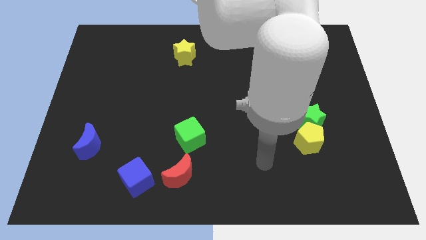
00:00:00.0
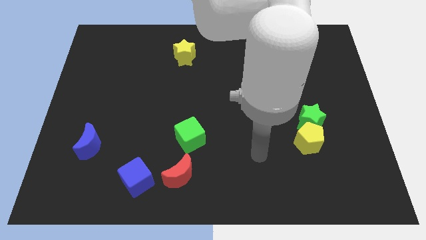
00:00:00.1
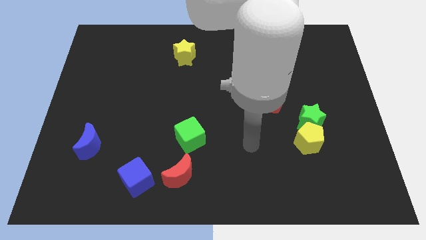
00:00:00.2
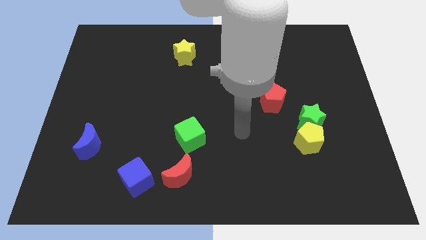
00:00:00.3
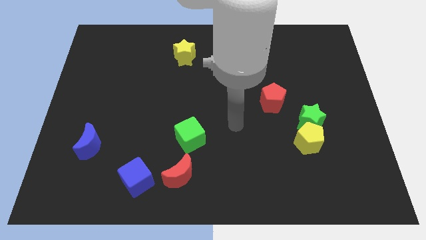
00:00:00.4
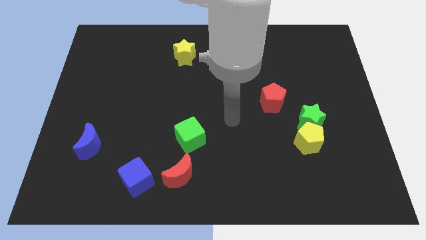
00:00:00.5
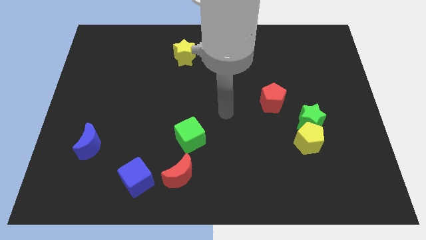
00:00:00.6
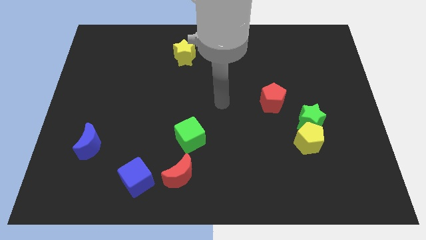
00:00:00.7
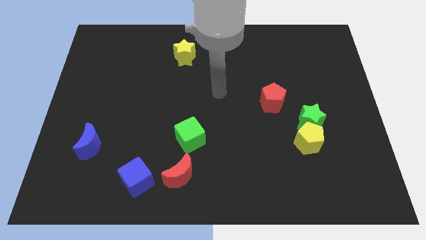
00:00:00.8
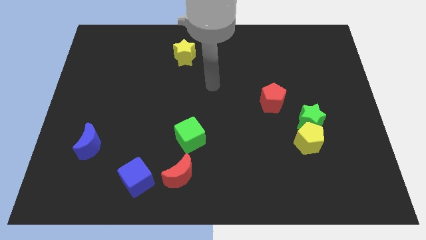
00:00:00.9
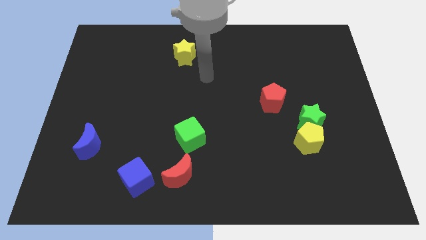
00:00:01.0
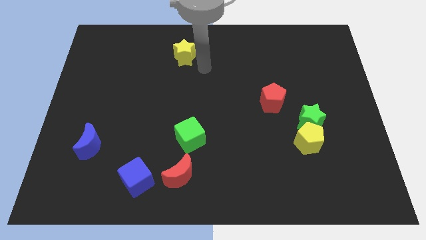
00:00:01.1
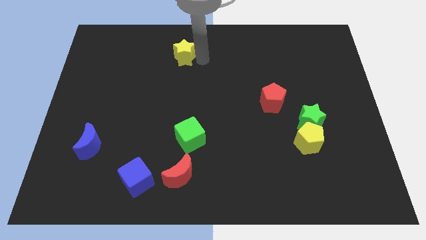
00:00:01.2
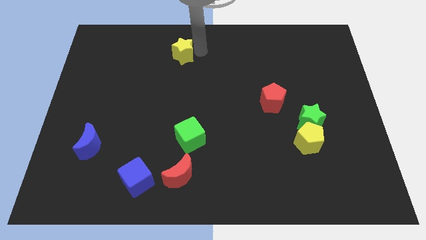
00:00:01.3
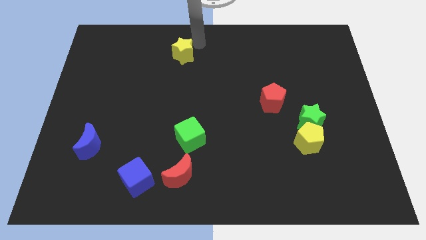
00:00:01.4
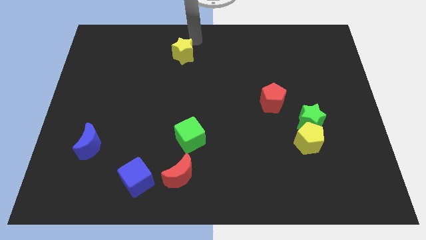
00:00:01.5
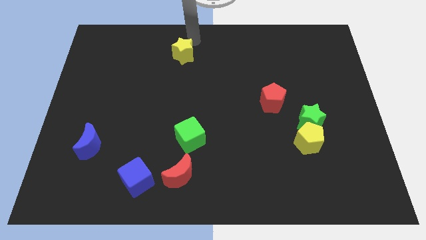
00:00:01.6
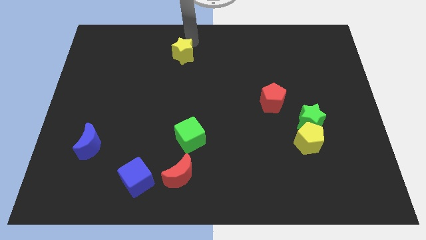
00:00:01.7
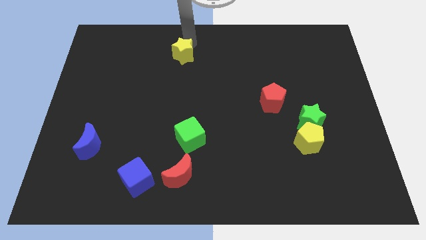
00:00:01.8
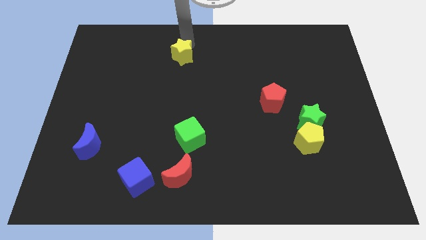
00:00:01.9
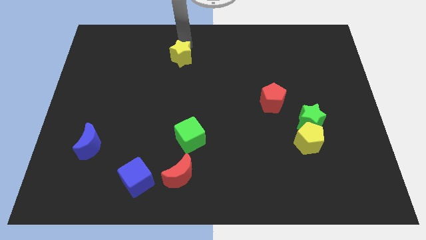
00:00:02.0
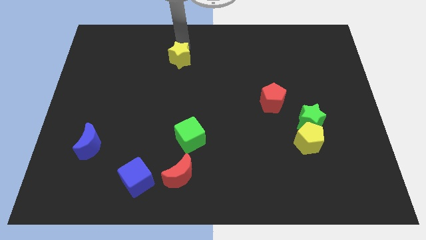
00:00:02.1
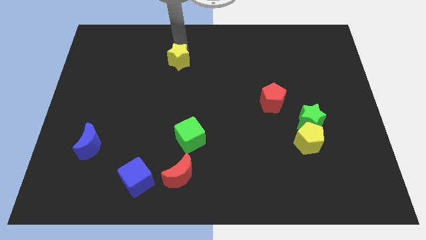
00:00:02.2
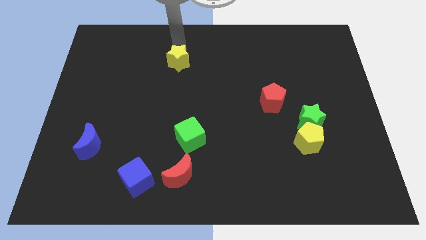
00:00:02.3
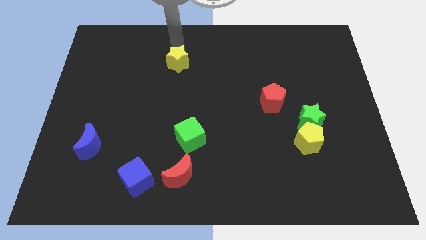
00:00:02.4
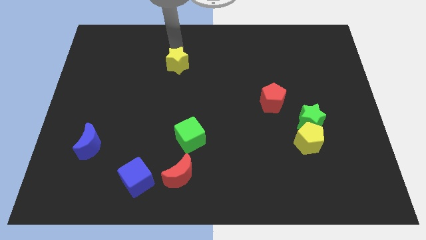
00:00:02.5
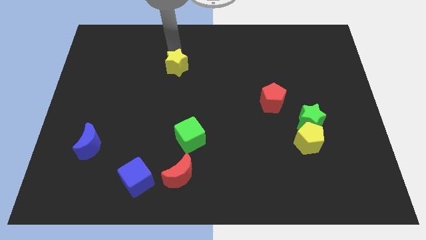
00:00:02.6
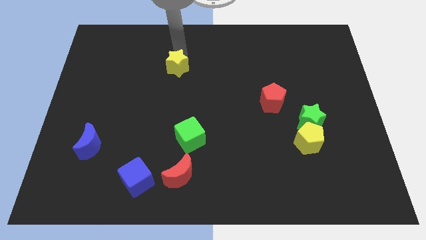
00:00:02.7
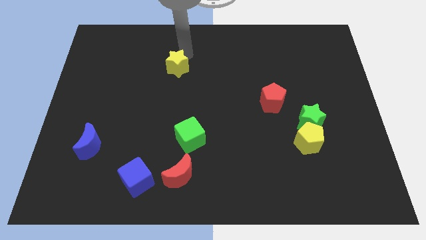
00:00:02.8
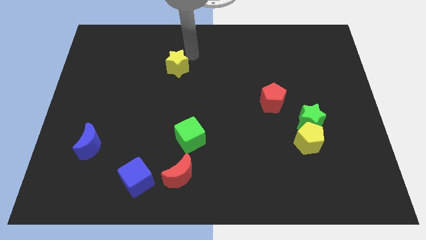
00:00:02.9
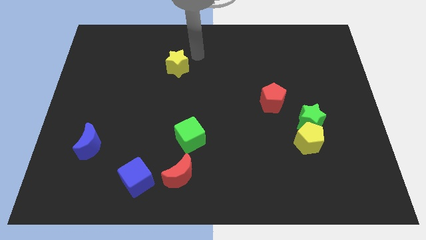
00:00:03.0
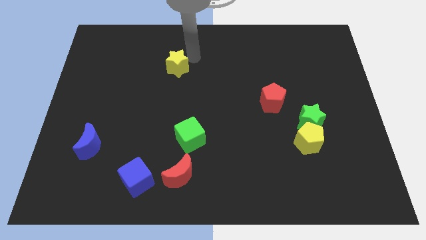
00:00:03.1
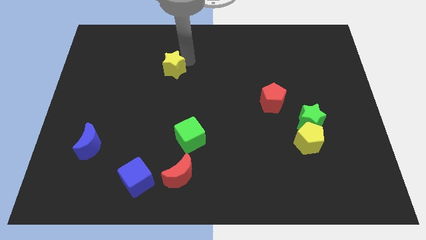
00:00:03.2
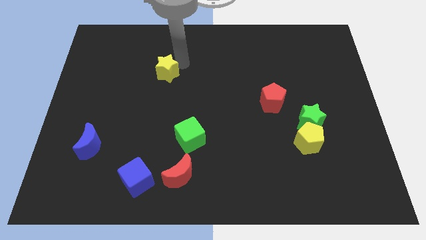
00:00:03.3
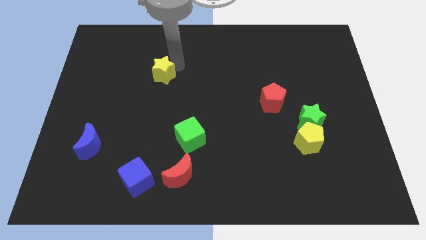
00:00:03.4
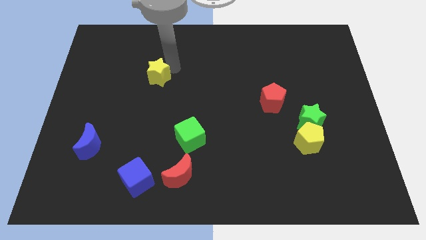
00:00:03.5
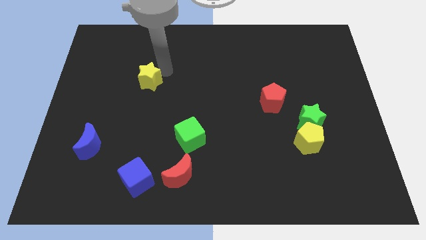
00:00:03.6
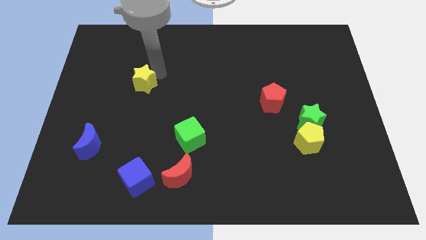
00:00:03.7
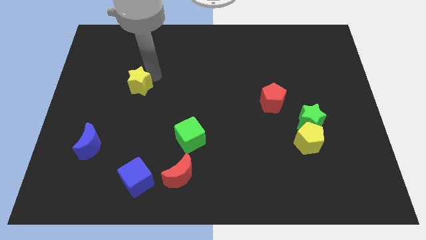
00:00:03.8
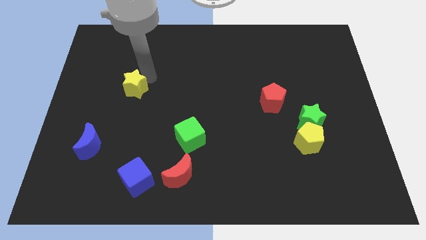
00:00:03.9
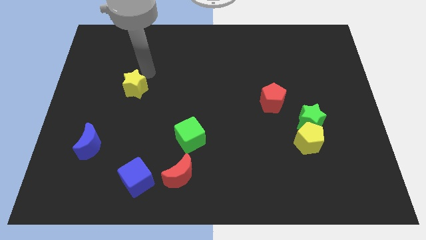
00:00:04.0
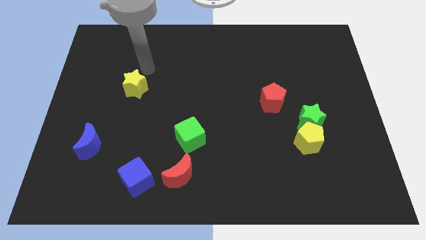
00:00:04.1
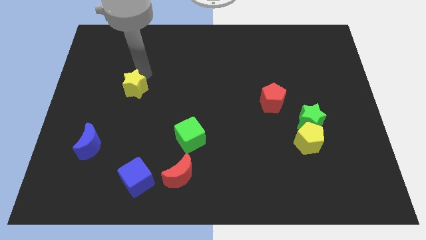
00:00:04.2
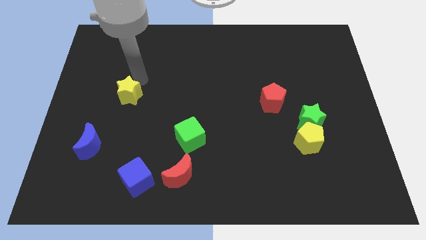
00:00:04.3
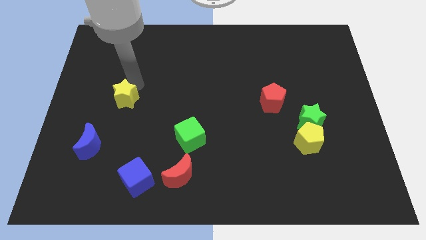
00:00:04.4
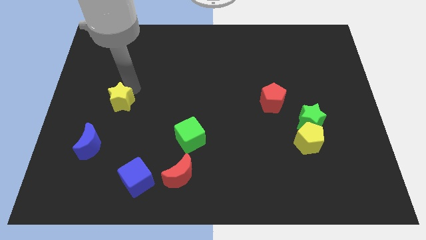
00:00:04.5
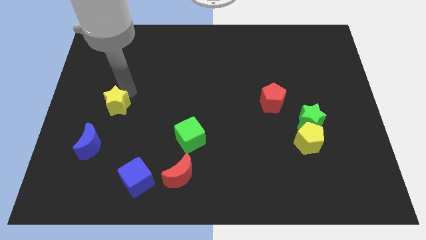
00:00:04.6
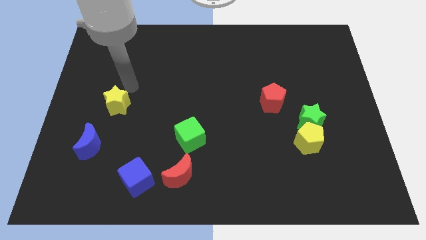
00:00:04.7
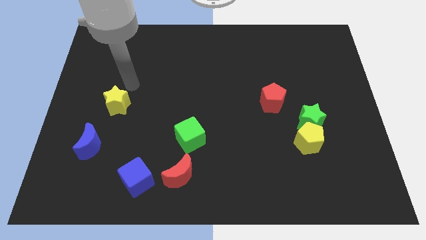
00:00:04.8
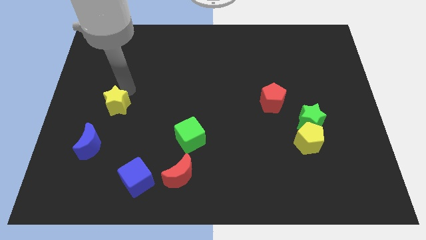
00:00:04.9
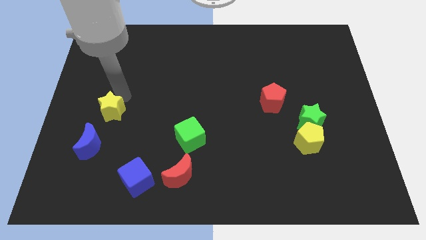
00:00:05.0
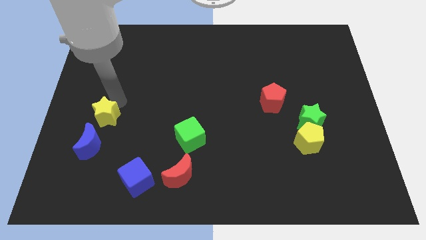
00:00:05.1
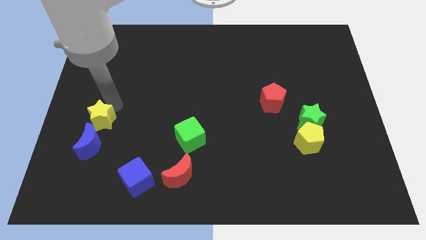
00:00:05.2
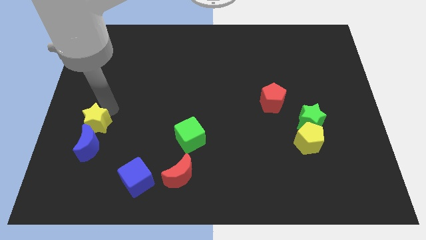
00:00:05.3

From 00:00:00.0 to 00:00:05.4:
put the yellow star close to the blue moon

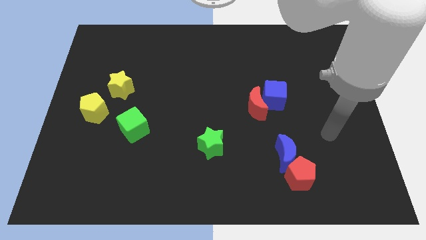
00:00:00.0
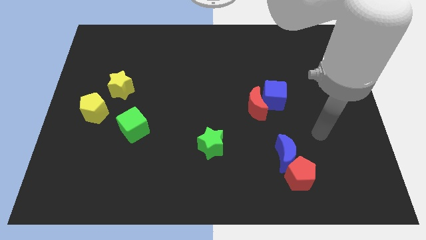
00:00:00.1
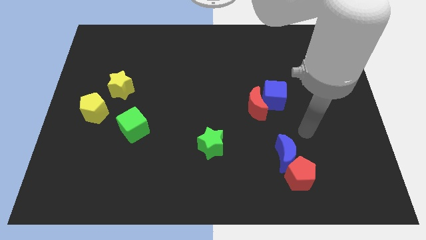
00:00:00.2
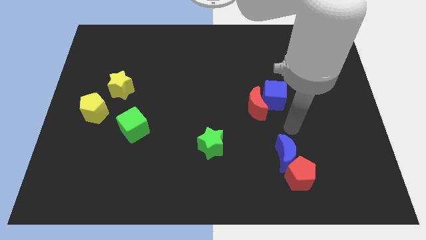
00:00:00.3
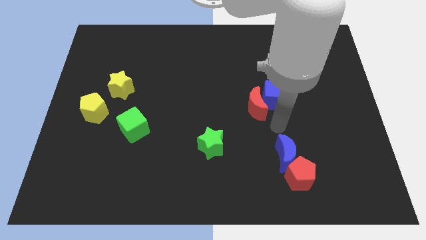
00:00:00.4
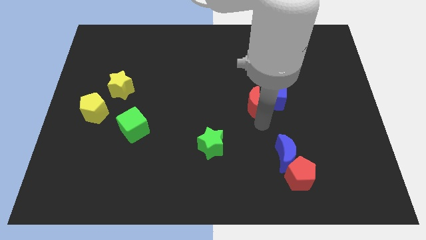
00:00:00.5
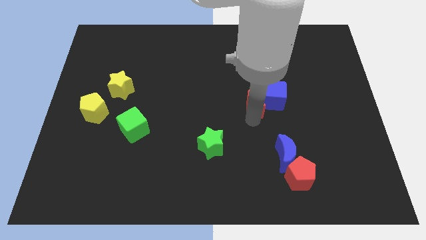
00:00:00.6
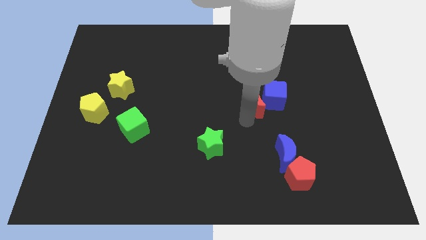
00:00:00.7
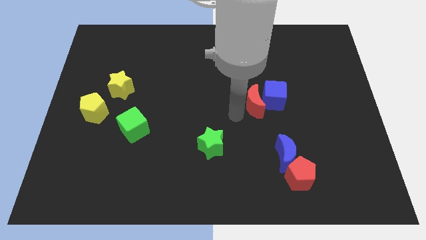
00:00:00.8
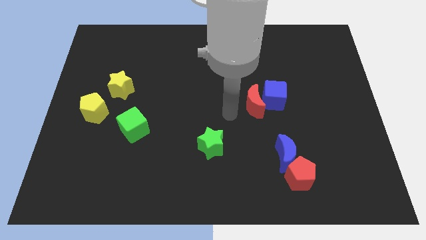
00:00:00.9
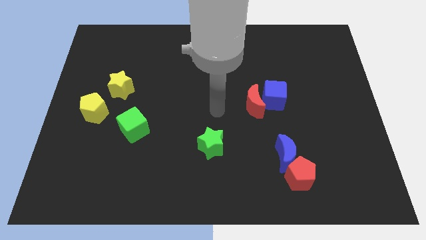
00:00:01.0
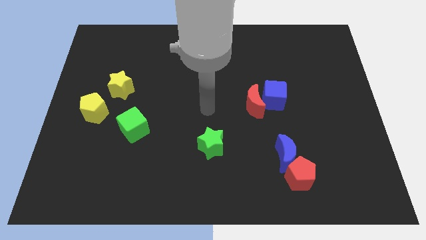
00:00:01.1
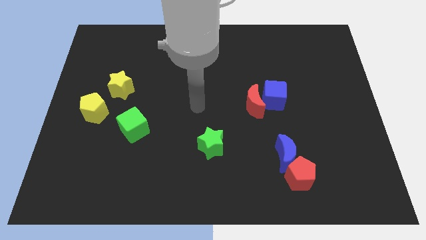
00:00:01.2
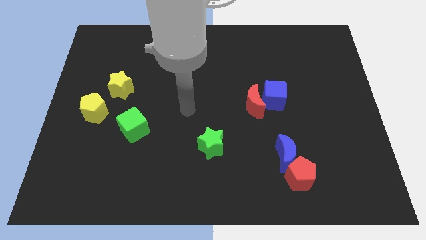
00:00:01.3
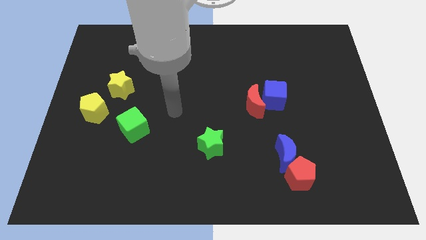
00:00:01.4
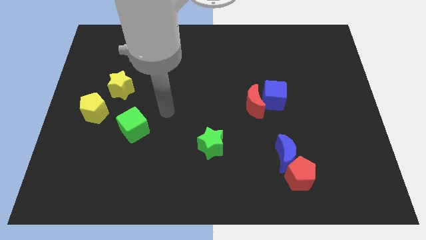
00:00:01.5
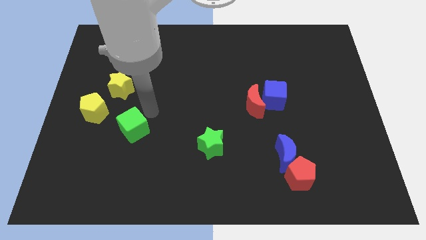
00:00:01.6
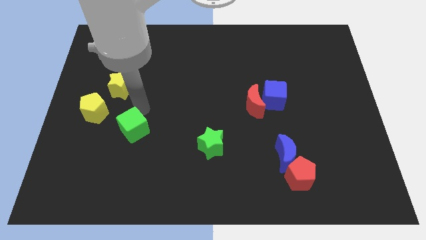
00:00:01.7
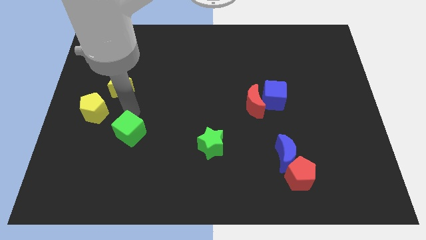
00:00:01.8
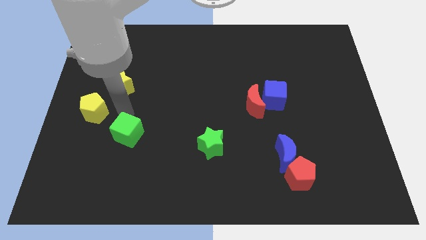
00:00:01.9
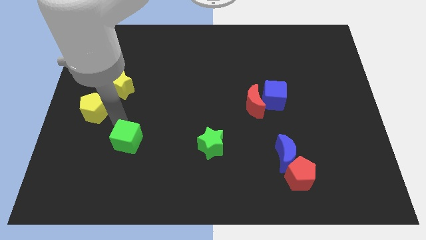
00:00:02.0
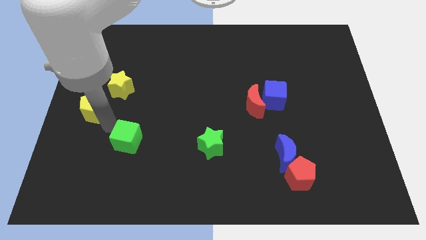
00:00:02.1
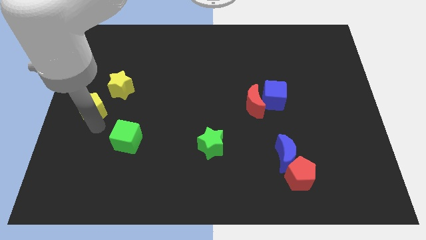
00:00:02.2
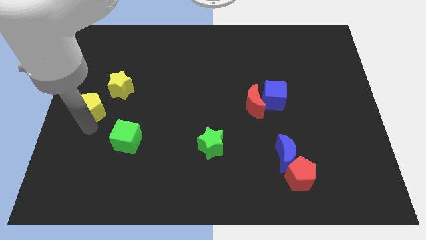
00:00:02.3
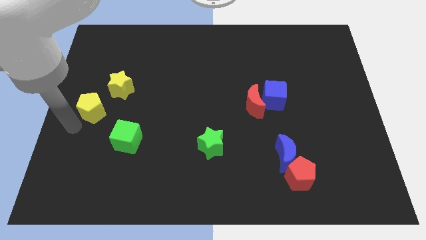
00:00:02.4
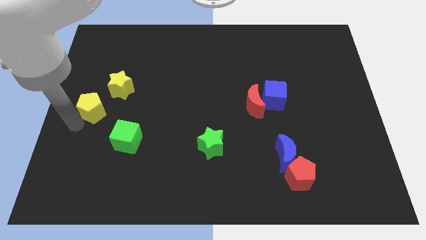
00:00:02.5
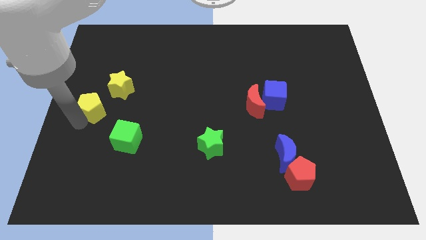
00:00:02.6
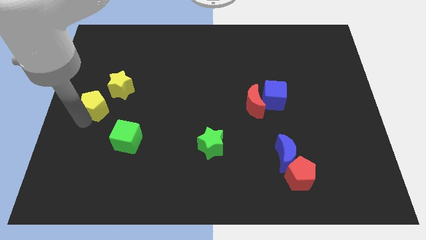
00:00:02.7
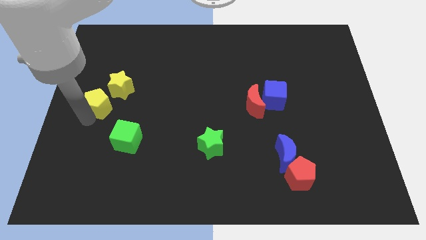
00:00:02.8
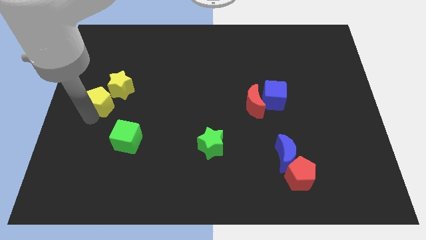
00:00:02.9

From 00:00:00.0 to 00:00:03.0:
put the yellow pentagon towards the yellow star

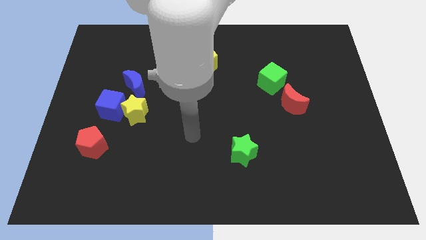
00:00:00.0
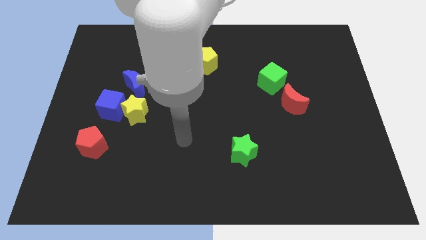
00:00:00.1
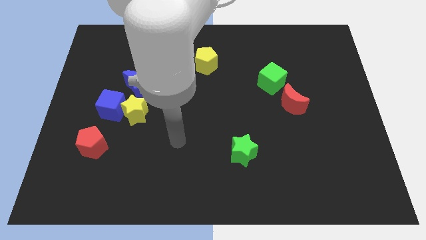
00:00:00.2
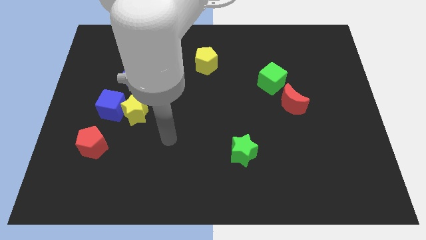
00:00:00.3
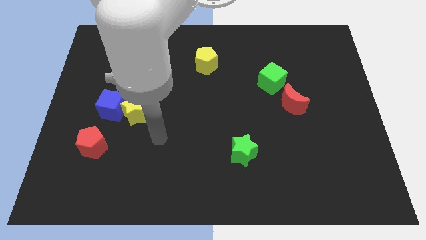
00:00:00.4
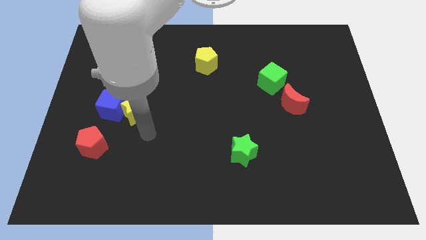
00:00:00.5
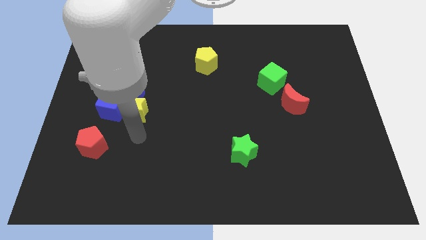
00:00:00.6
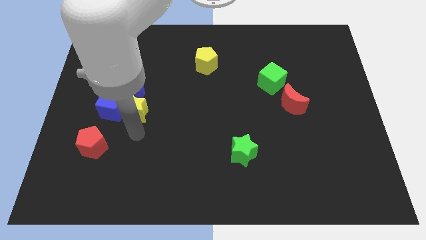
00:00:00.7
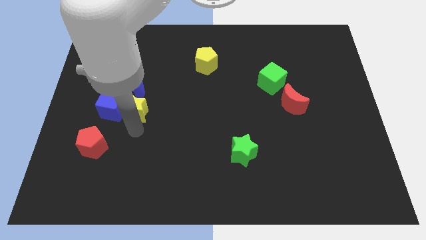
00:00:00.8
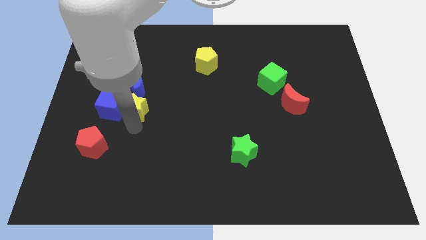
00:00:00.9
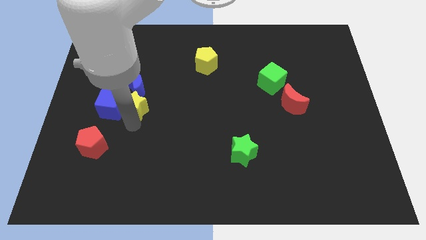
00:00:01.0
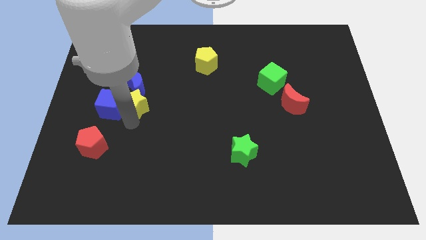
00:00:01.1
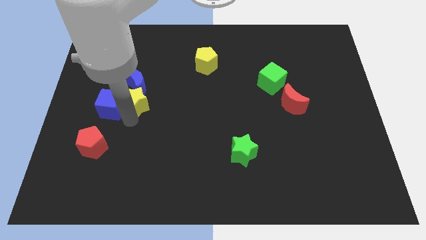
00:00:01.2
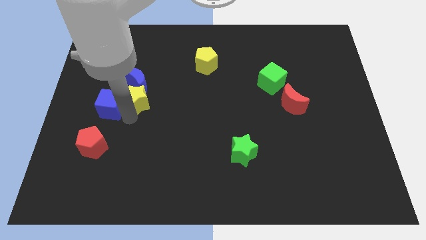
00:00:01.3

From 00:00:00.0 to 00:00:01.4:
slide the yellow star close to the blue moon
